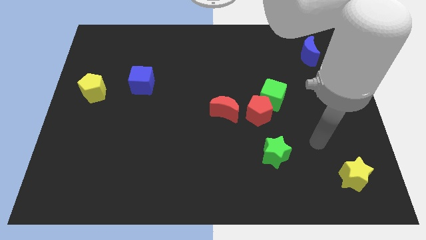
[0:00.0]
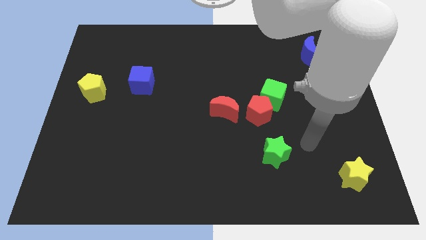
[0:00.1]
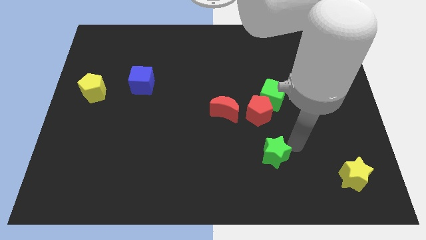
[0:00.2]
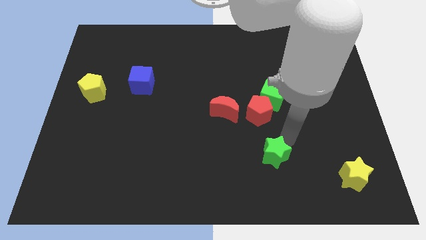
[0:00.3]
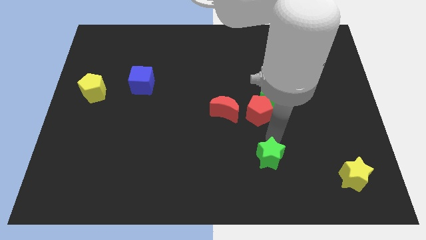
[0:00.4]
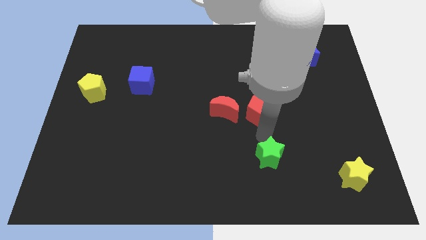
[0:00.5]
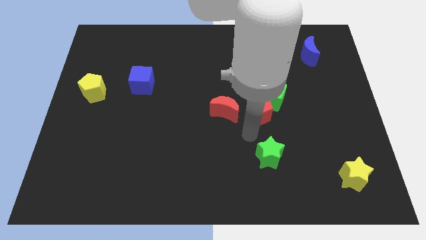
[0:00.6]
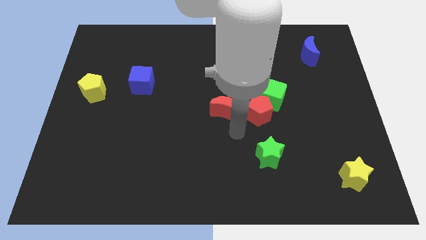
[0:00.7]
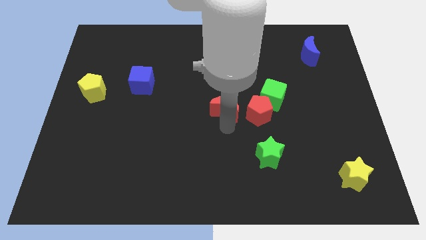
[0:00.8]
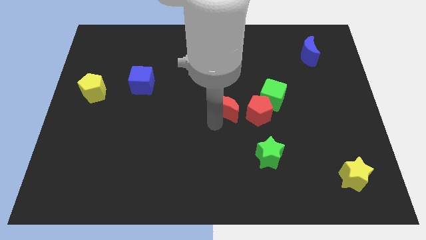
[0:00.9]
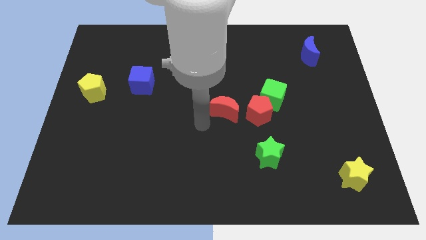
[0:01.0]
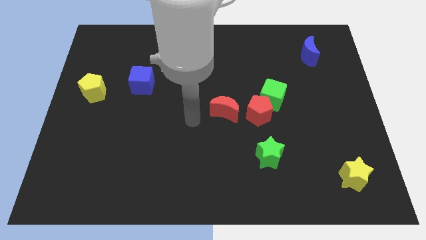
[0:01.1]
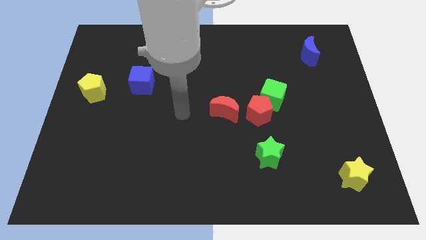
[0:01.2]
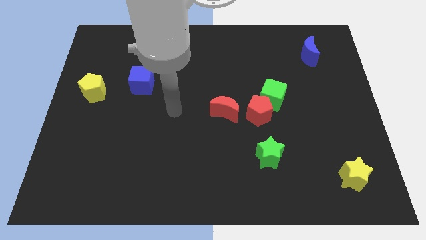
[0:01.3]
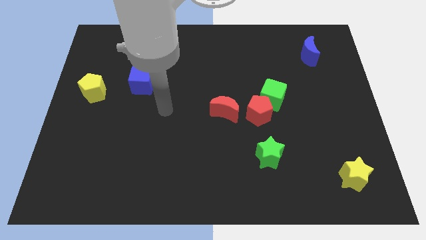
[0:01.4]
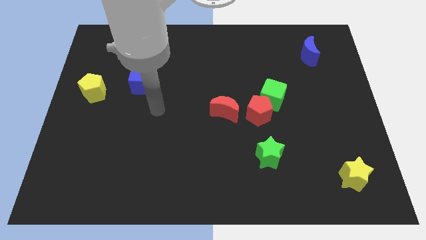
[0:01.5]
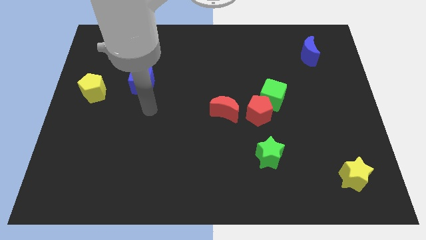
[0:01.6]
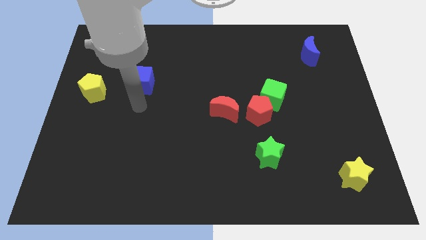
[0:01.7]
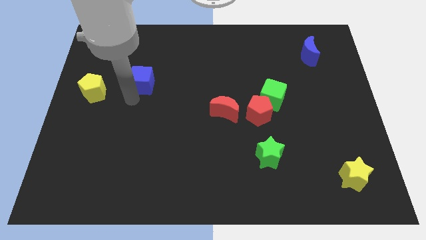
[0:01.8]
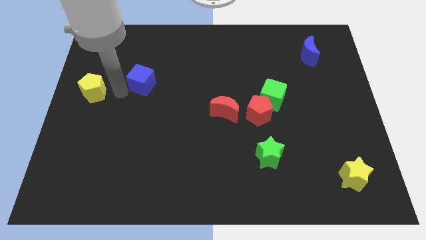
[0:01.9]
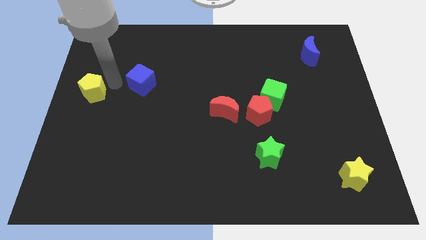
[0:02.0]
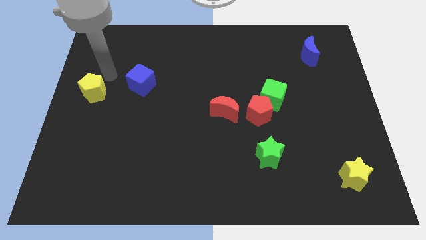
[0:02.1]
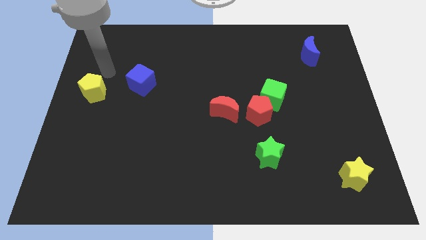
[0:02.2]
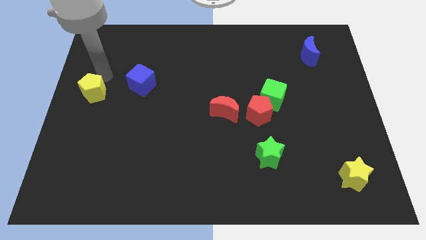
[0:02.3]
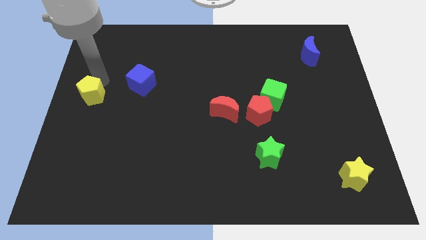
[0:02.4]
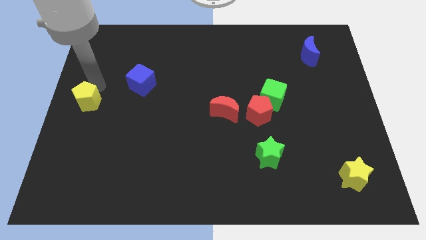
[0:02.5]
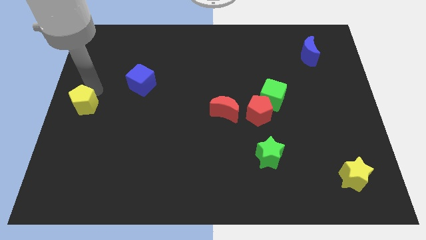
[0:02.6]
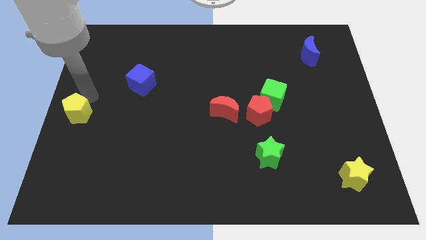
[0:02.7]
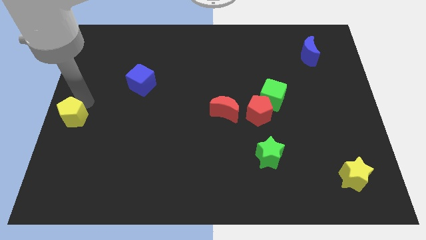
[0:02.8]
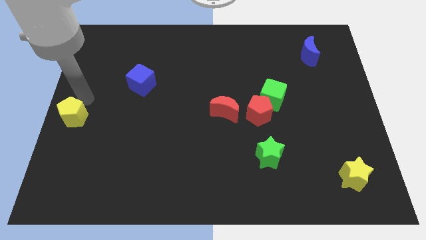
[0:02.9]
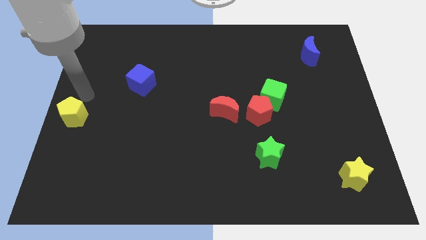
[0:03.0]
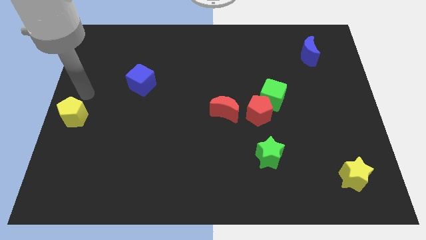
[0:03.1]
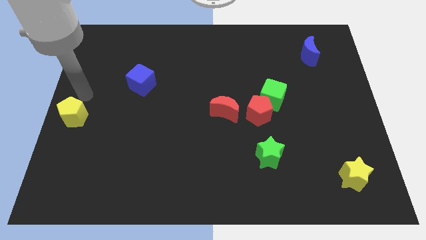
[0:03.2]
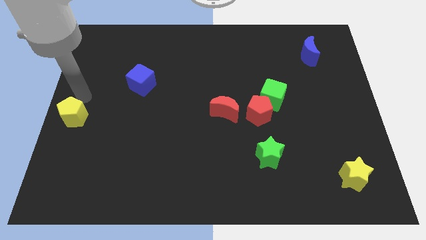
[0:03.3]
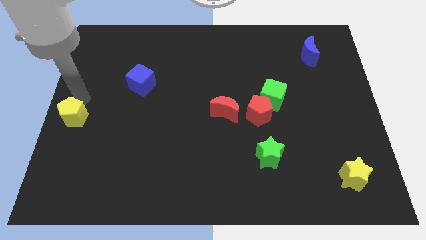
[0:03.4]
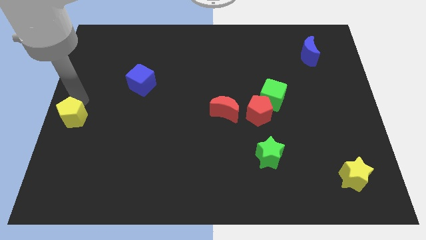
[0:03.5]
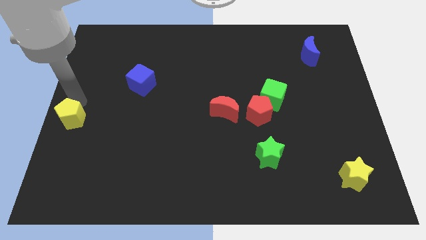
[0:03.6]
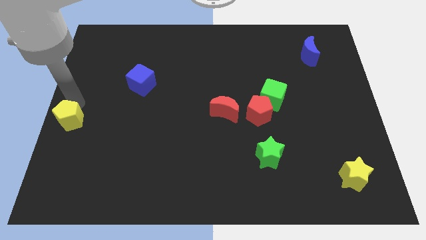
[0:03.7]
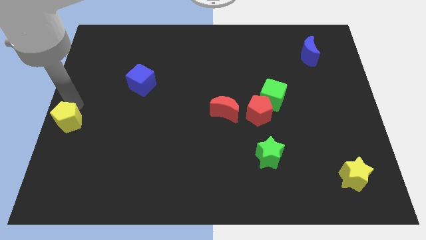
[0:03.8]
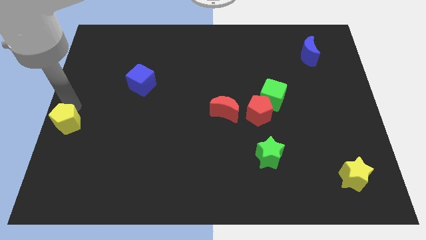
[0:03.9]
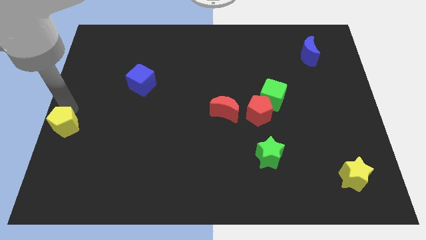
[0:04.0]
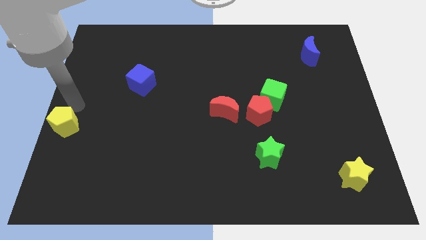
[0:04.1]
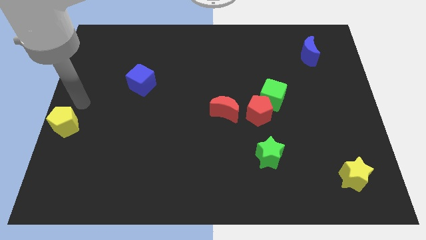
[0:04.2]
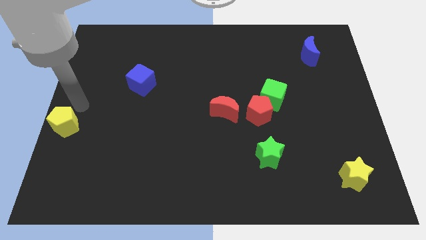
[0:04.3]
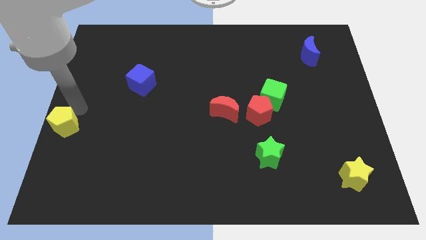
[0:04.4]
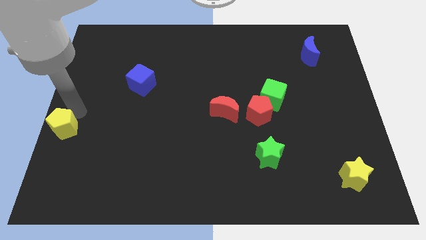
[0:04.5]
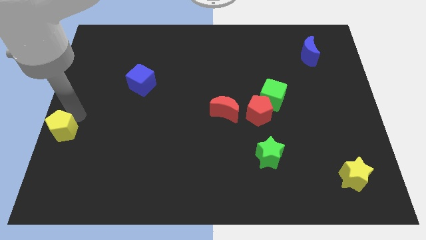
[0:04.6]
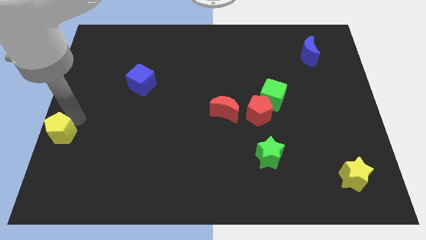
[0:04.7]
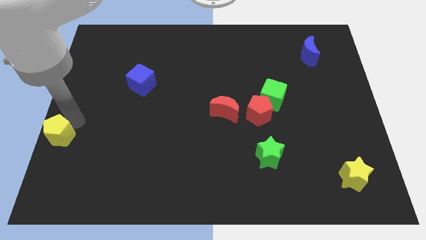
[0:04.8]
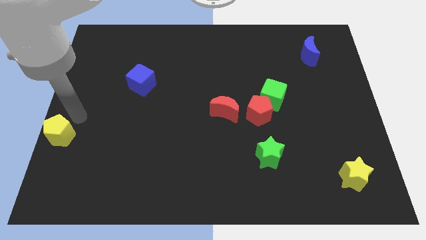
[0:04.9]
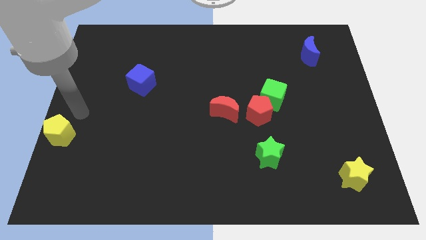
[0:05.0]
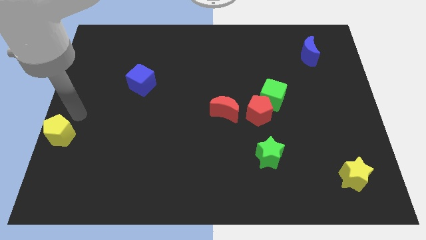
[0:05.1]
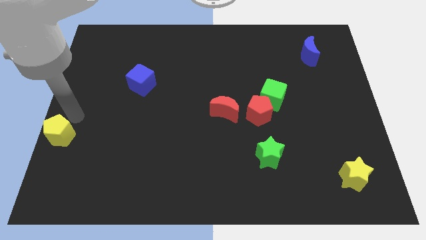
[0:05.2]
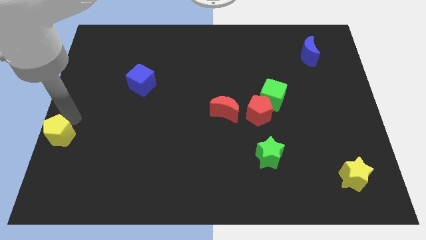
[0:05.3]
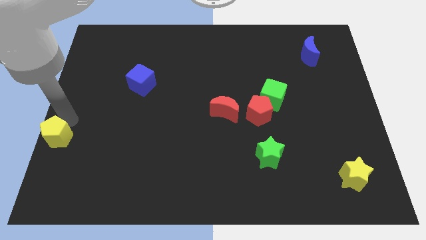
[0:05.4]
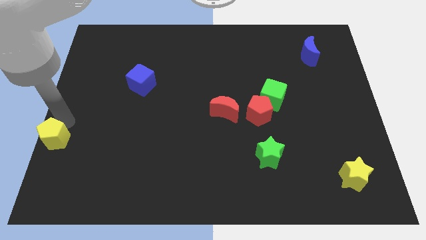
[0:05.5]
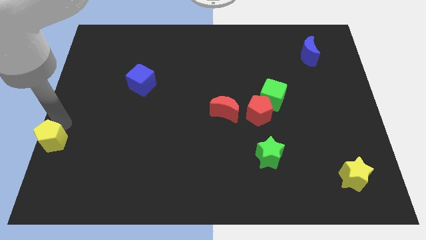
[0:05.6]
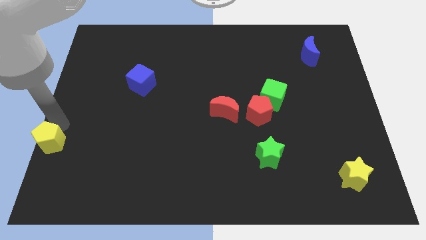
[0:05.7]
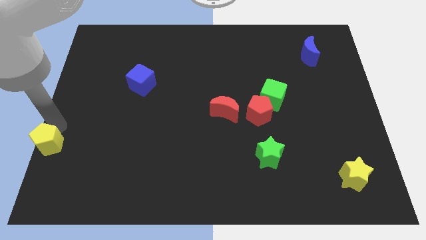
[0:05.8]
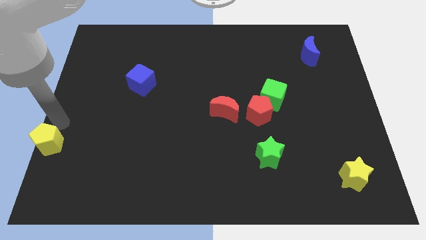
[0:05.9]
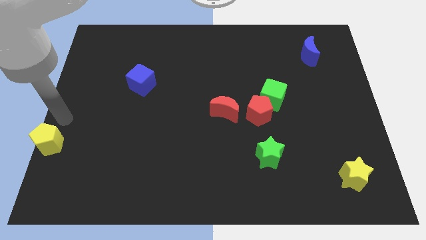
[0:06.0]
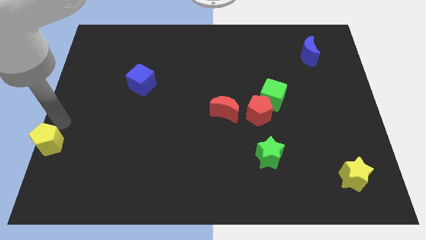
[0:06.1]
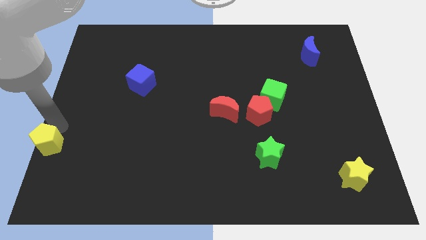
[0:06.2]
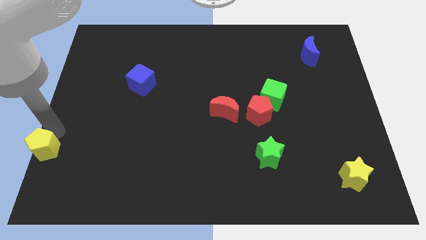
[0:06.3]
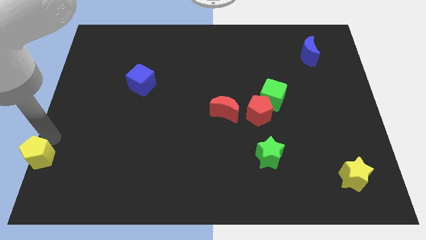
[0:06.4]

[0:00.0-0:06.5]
put the yellow pentagon to the bottom left corner

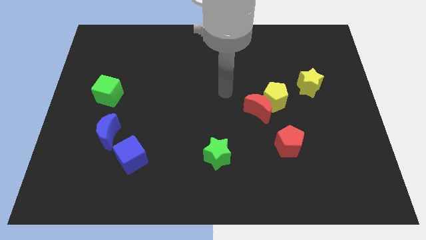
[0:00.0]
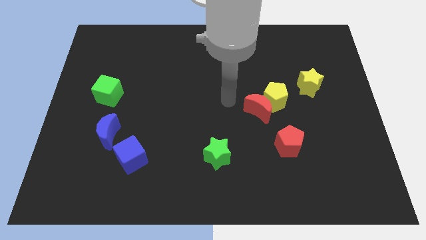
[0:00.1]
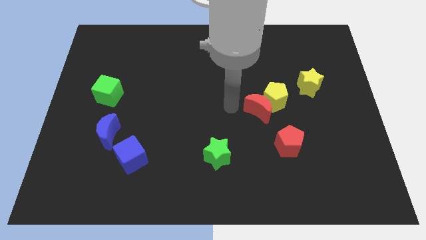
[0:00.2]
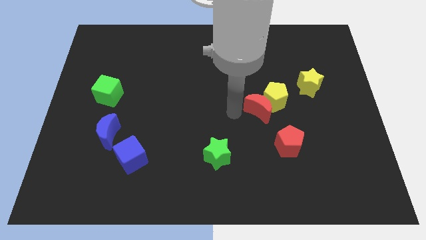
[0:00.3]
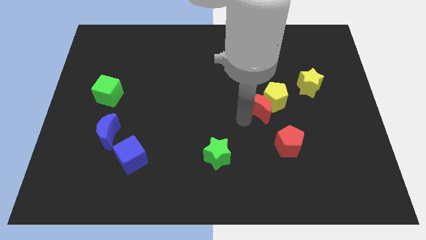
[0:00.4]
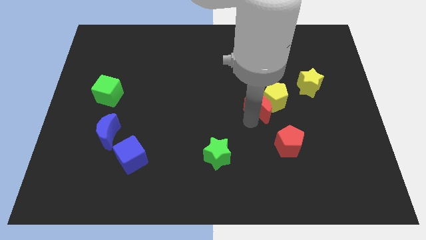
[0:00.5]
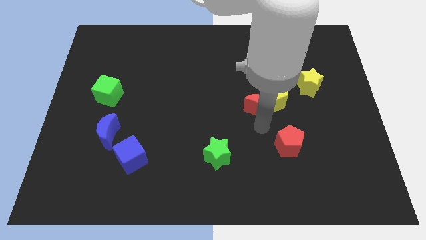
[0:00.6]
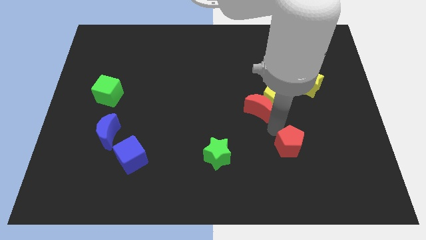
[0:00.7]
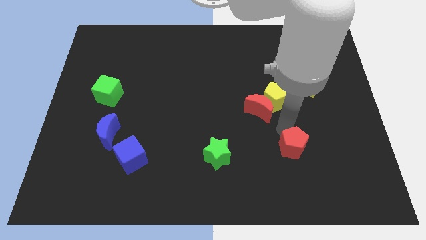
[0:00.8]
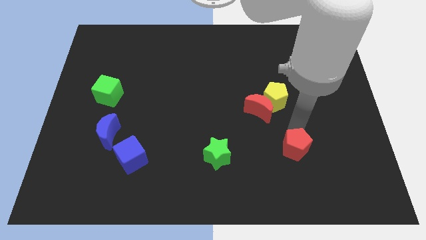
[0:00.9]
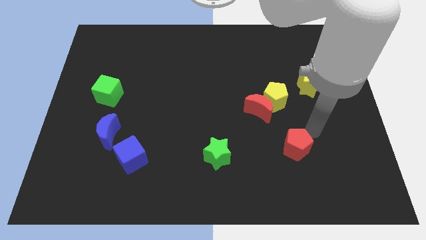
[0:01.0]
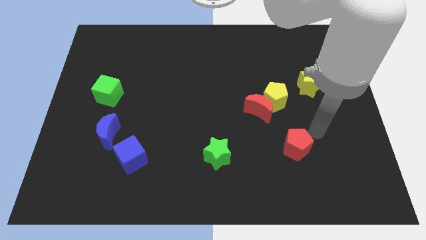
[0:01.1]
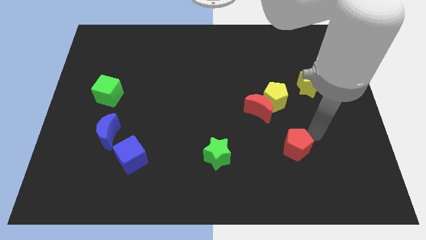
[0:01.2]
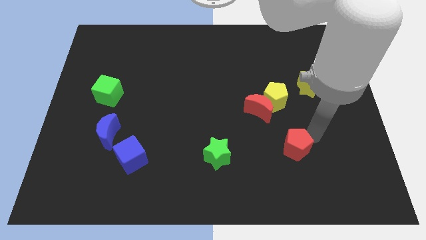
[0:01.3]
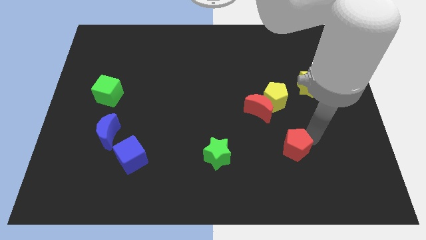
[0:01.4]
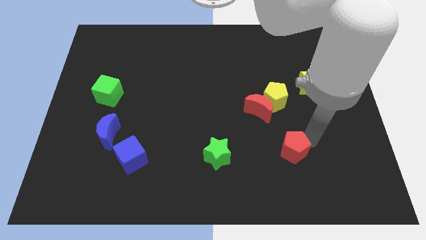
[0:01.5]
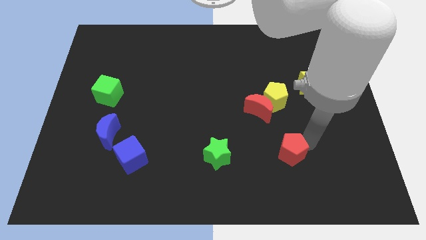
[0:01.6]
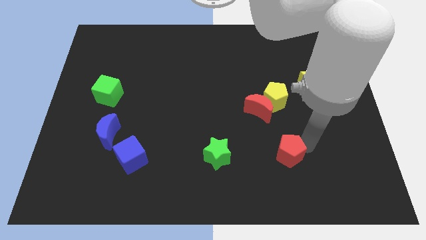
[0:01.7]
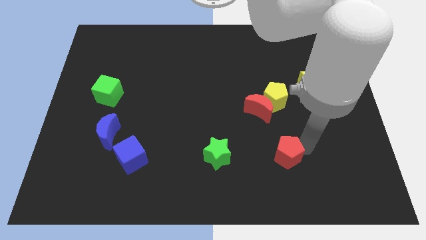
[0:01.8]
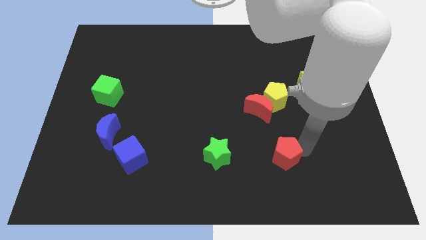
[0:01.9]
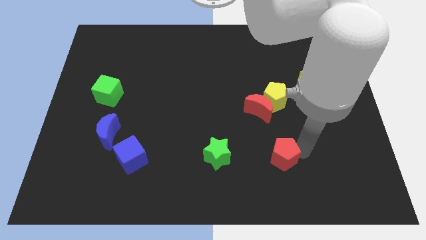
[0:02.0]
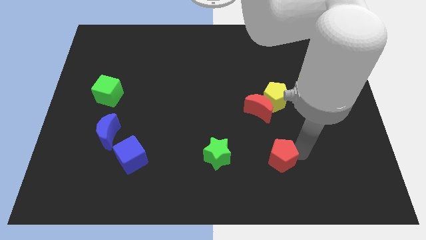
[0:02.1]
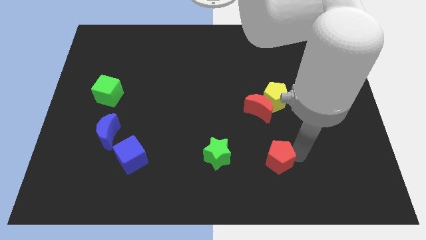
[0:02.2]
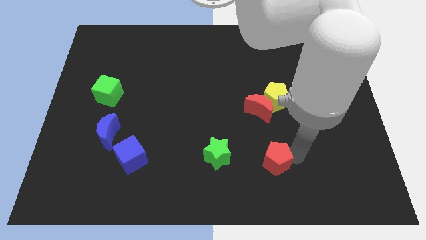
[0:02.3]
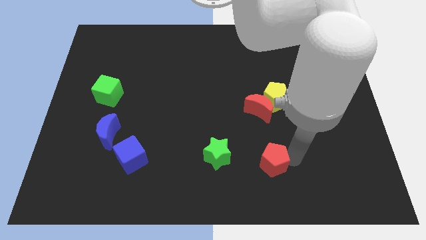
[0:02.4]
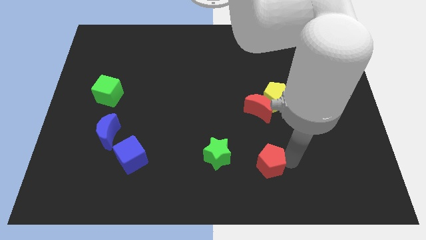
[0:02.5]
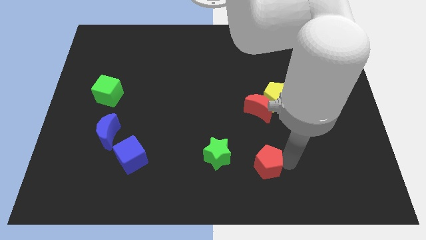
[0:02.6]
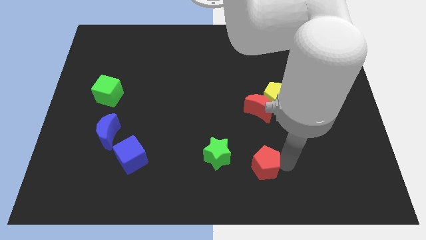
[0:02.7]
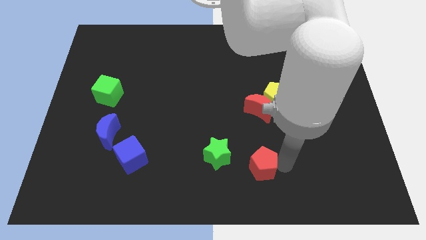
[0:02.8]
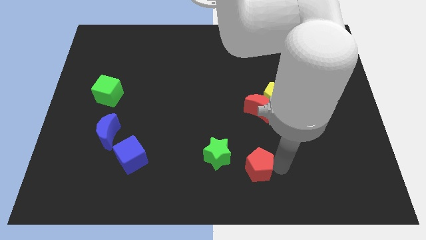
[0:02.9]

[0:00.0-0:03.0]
move the red pentagon to the bottom
